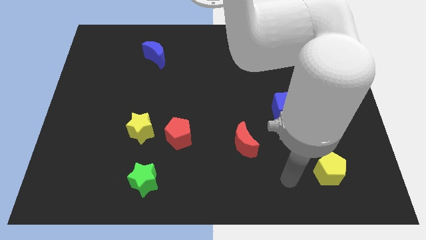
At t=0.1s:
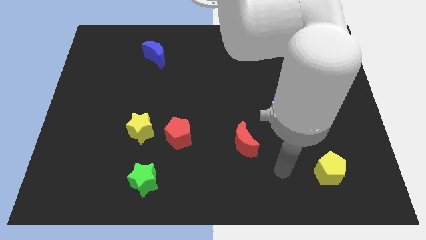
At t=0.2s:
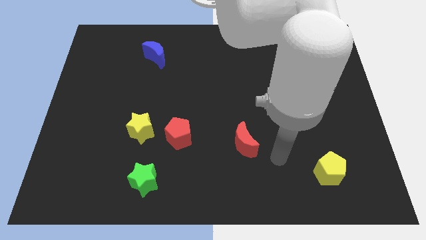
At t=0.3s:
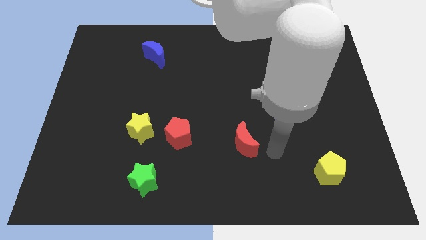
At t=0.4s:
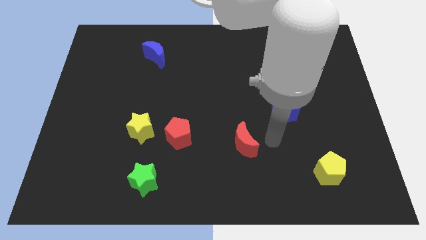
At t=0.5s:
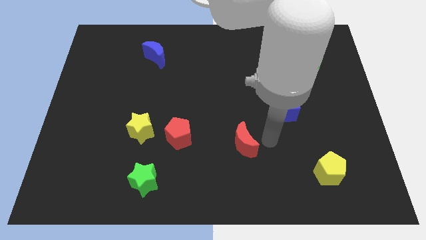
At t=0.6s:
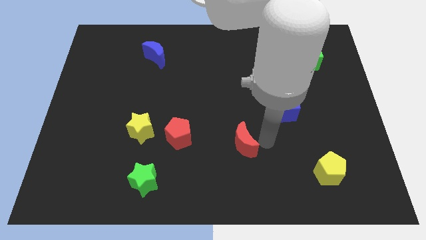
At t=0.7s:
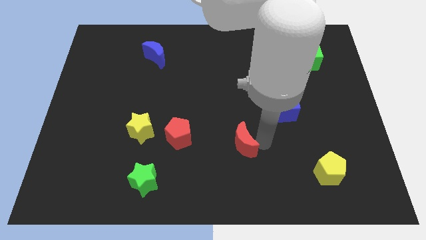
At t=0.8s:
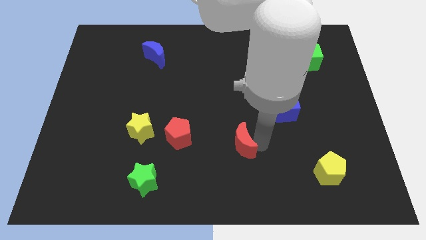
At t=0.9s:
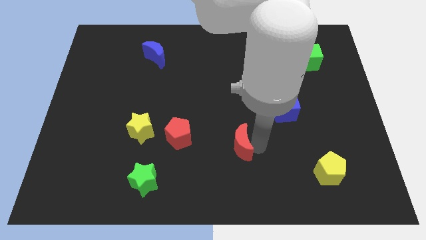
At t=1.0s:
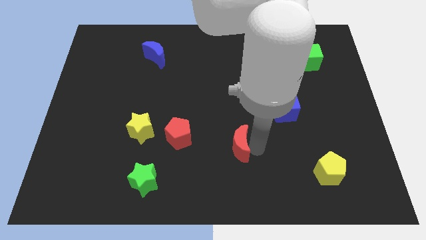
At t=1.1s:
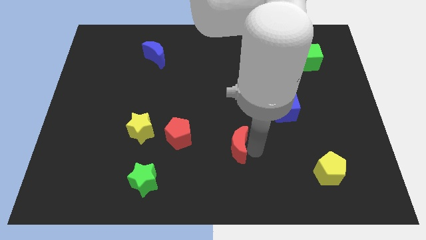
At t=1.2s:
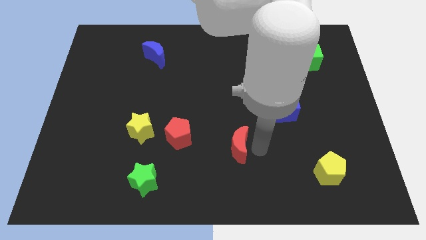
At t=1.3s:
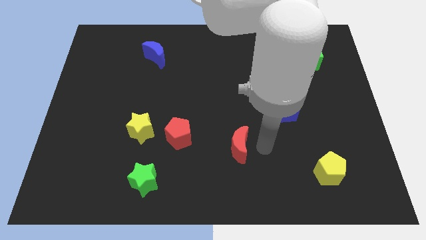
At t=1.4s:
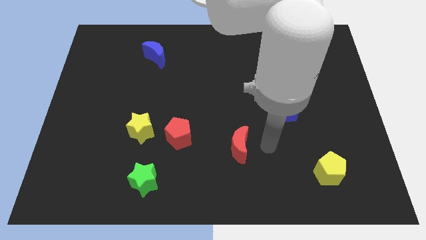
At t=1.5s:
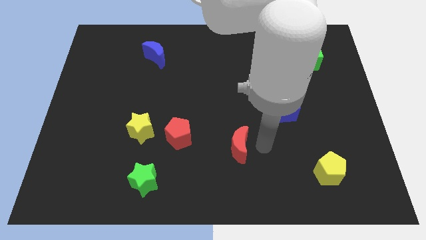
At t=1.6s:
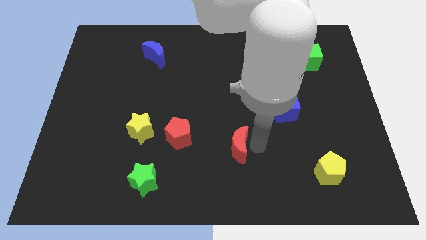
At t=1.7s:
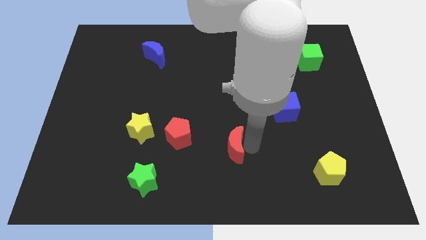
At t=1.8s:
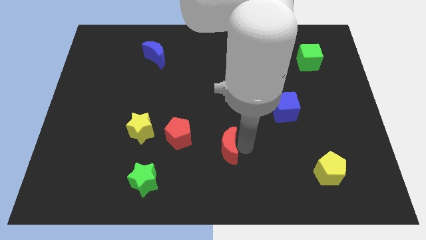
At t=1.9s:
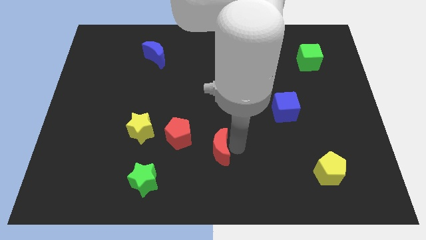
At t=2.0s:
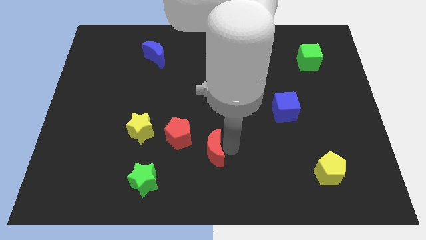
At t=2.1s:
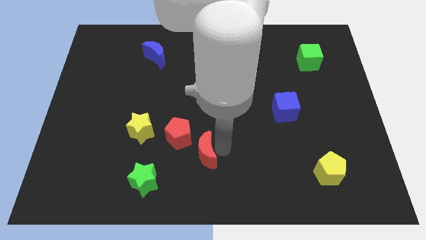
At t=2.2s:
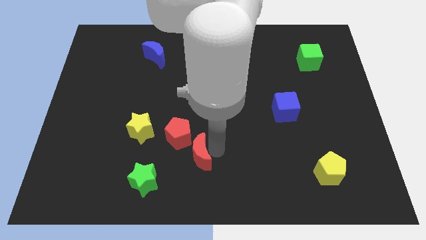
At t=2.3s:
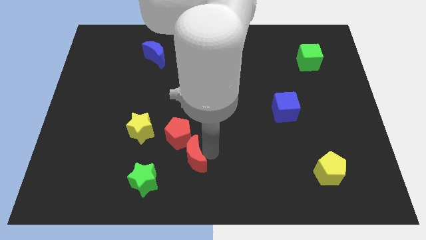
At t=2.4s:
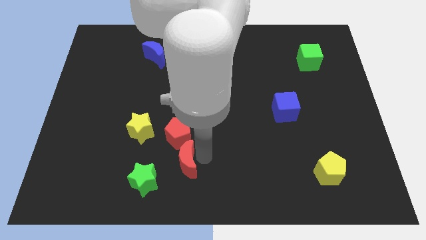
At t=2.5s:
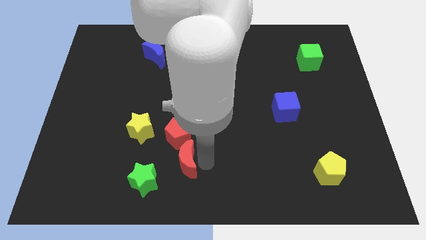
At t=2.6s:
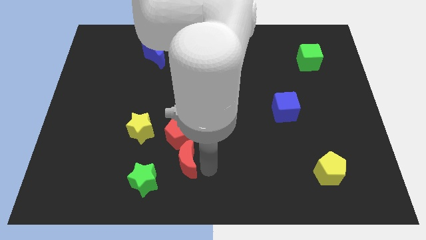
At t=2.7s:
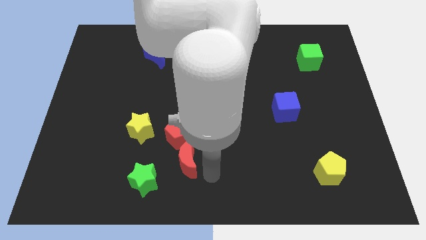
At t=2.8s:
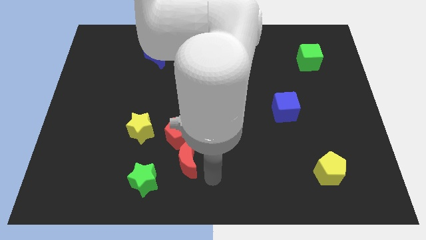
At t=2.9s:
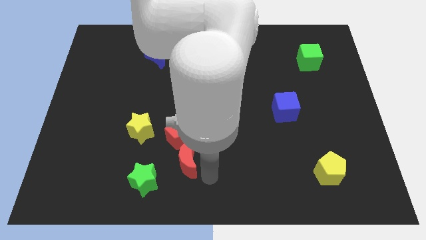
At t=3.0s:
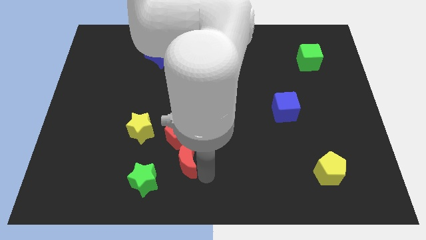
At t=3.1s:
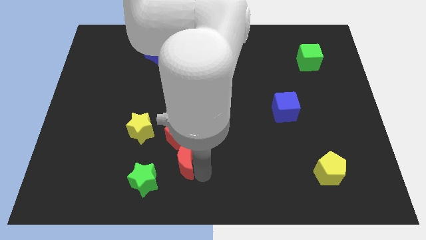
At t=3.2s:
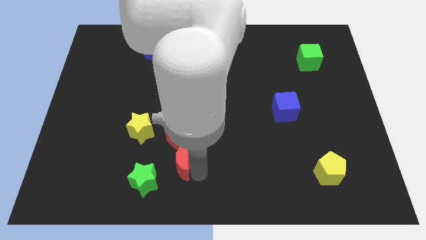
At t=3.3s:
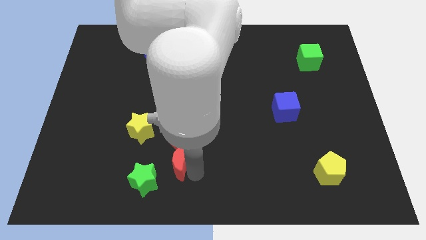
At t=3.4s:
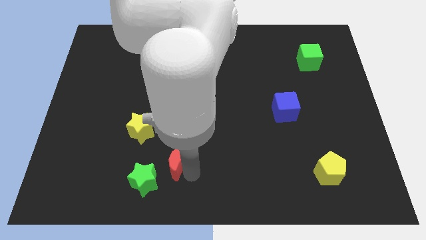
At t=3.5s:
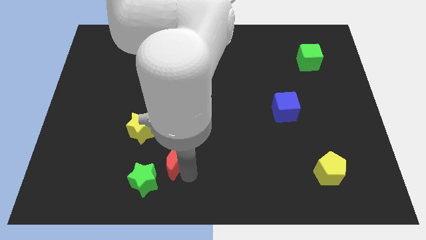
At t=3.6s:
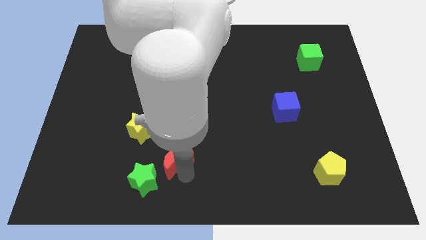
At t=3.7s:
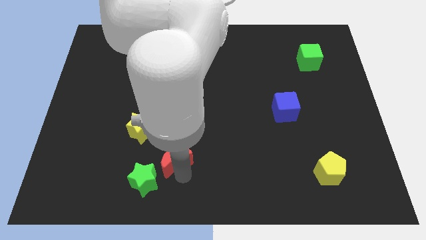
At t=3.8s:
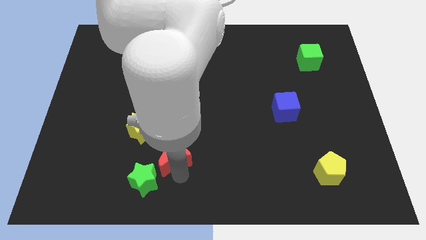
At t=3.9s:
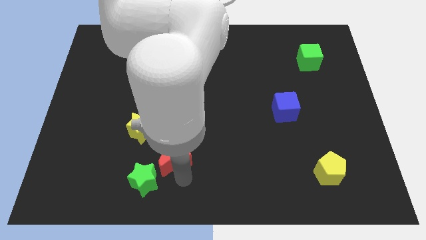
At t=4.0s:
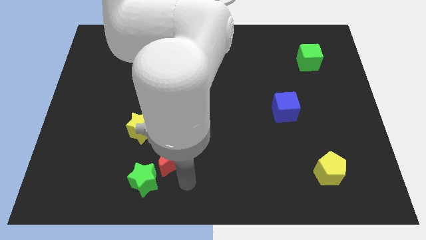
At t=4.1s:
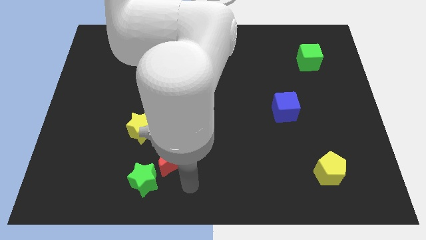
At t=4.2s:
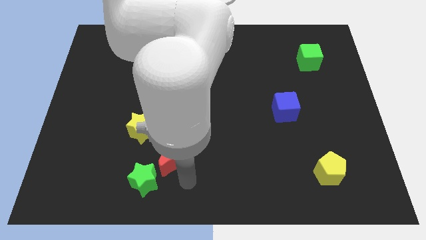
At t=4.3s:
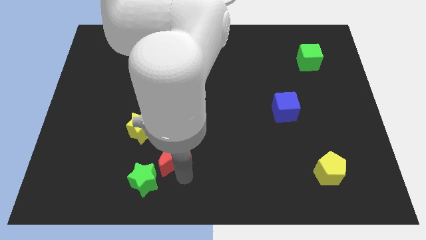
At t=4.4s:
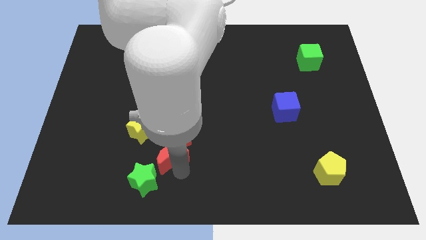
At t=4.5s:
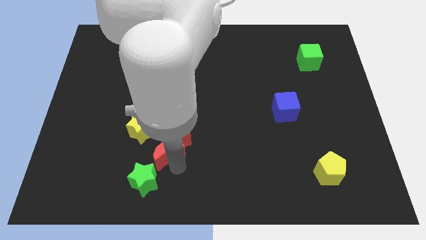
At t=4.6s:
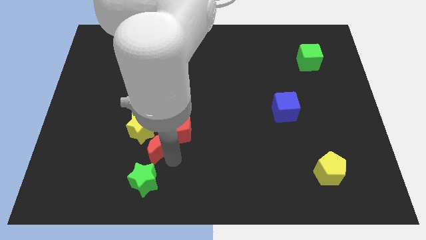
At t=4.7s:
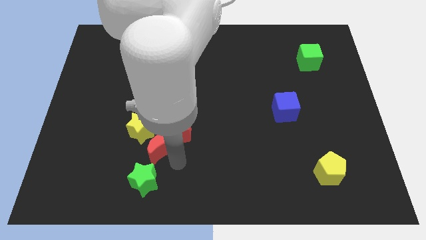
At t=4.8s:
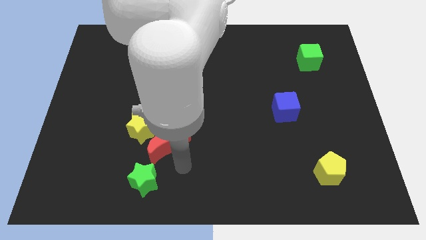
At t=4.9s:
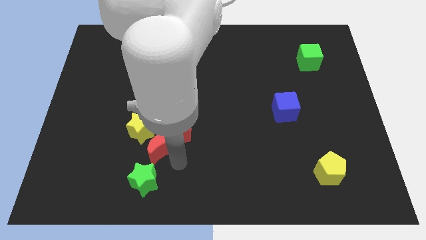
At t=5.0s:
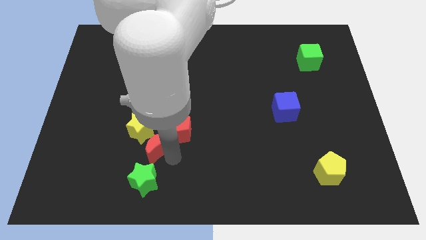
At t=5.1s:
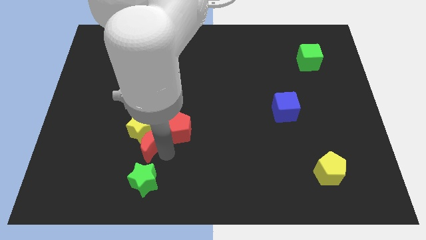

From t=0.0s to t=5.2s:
push the red moon close to the yellow star

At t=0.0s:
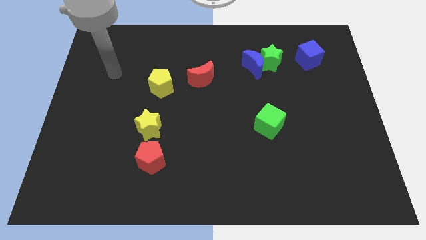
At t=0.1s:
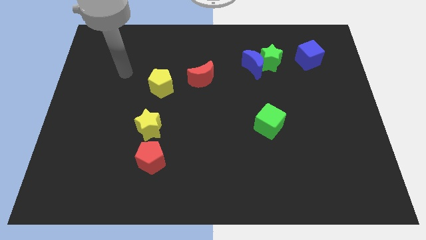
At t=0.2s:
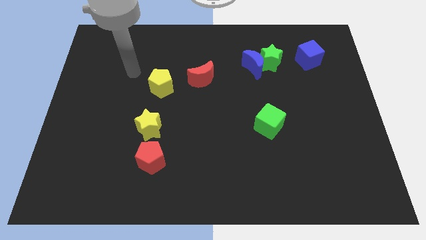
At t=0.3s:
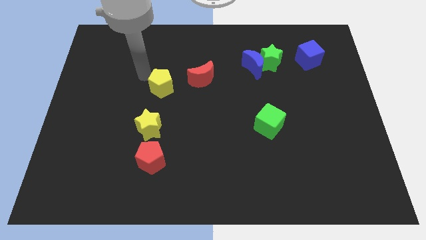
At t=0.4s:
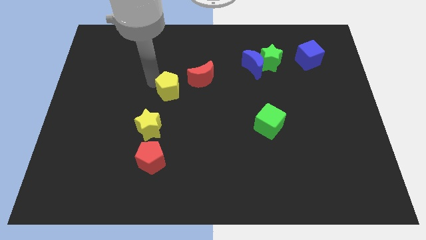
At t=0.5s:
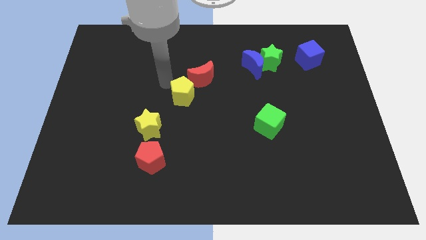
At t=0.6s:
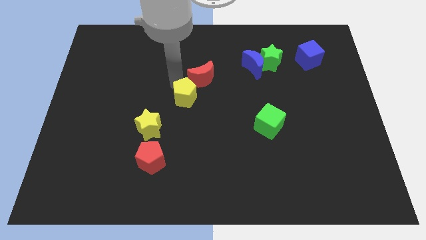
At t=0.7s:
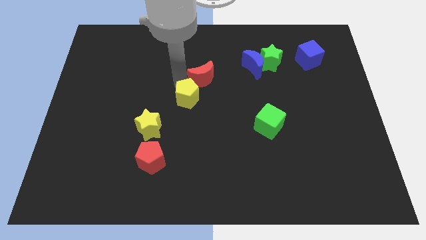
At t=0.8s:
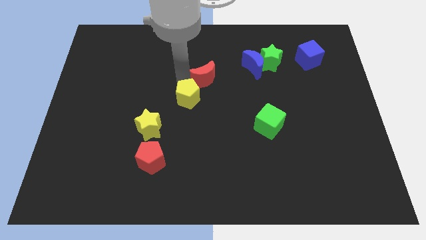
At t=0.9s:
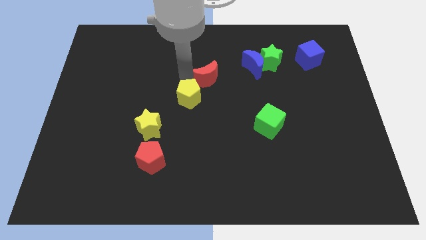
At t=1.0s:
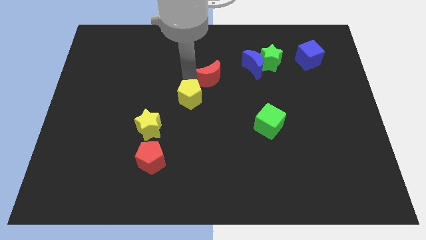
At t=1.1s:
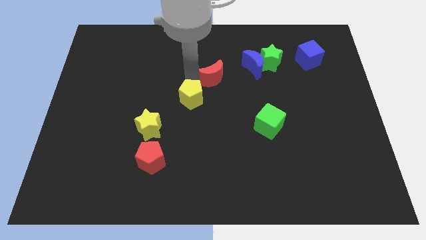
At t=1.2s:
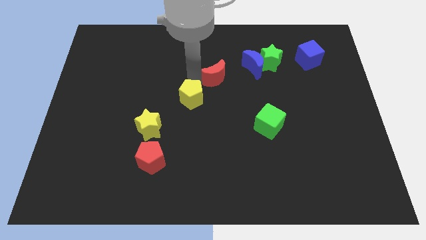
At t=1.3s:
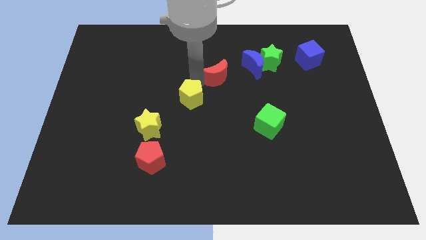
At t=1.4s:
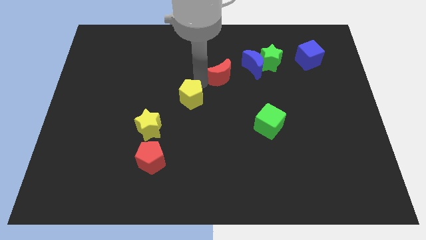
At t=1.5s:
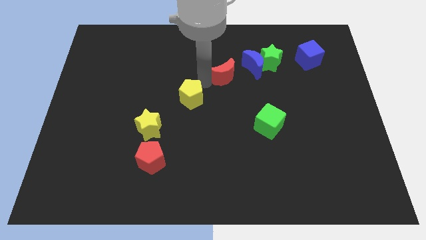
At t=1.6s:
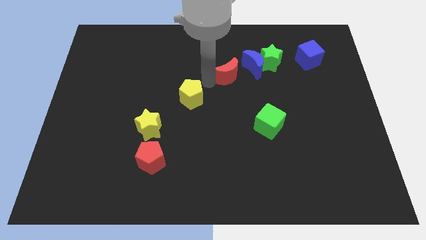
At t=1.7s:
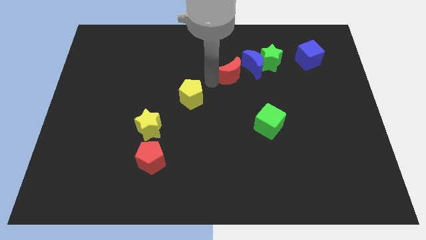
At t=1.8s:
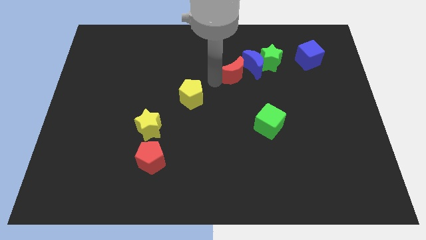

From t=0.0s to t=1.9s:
put the red moon close to the blue moon
